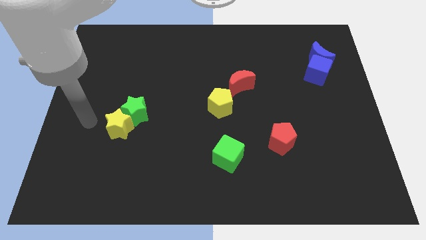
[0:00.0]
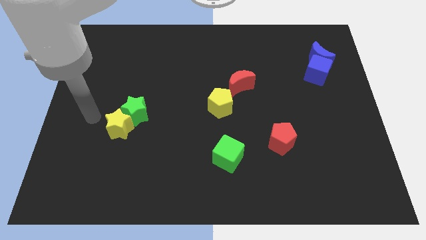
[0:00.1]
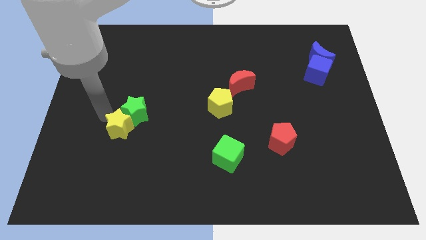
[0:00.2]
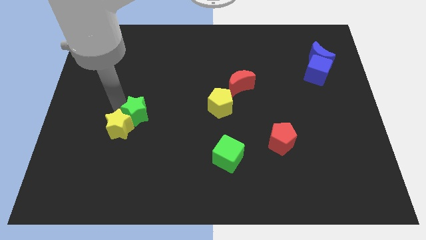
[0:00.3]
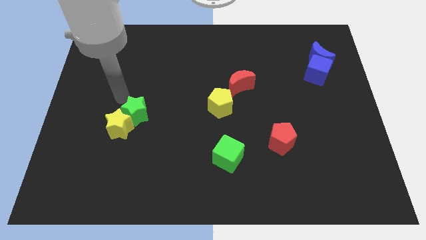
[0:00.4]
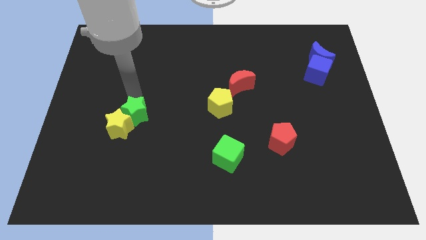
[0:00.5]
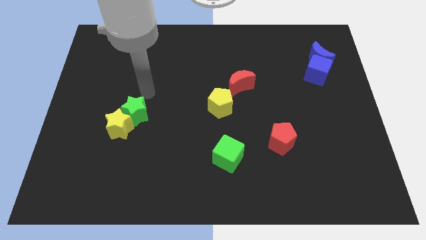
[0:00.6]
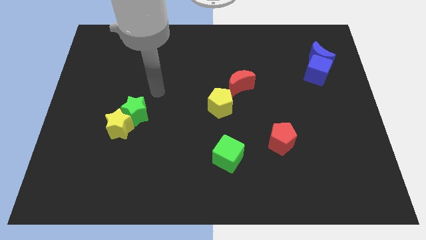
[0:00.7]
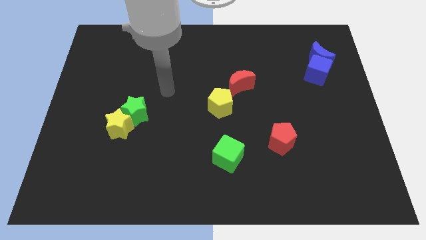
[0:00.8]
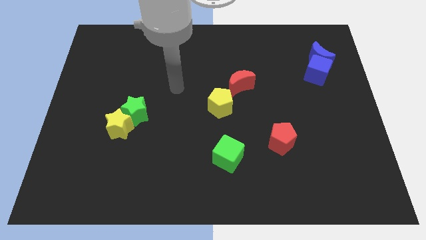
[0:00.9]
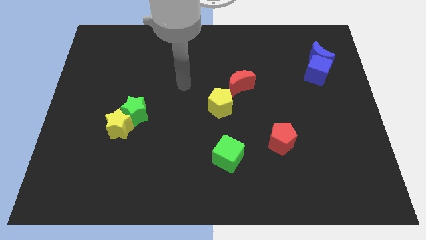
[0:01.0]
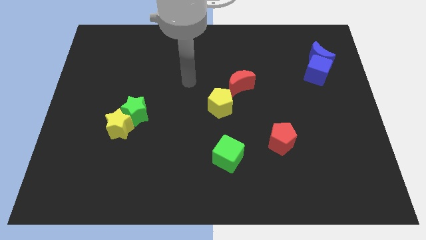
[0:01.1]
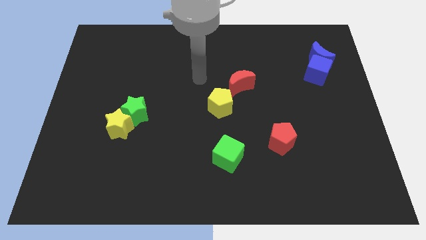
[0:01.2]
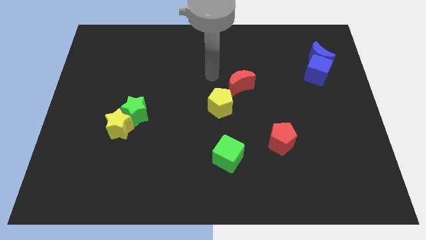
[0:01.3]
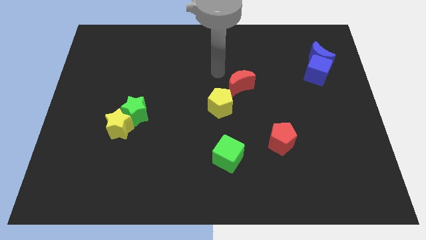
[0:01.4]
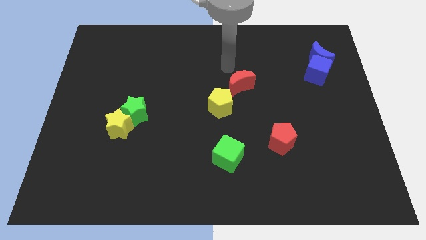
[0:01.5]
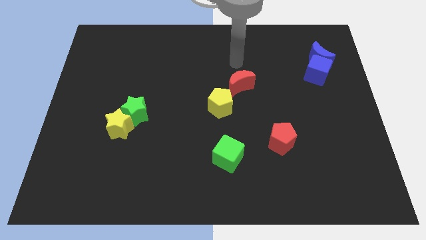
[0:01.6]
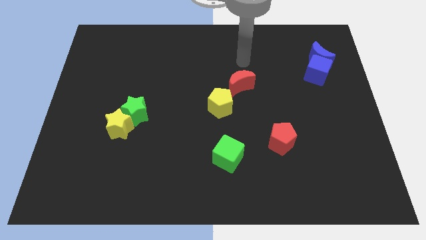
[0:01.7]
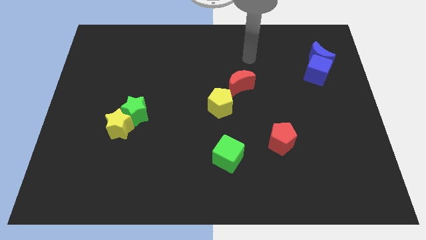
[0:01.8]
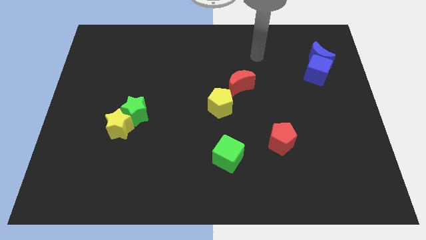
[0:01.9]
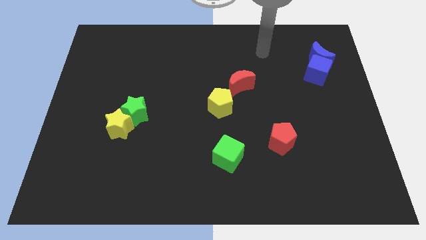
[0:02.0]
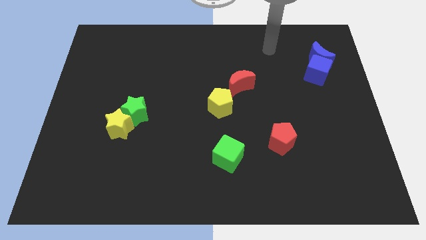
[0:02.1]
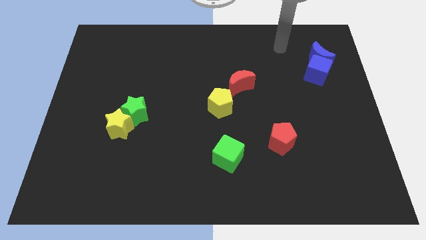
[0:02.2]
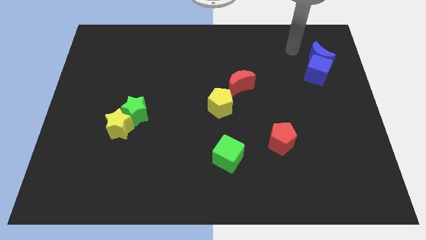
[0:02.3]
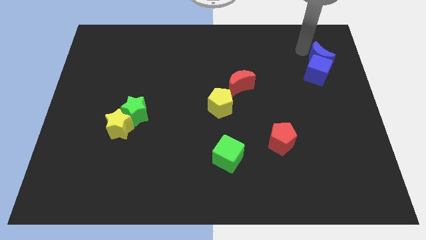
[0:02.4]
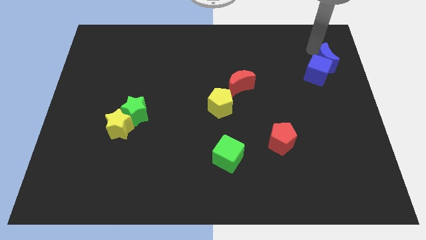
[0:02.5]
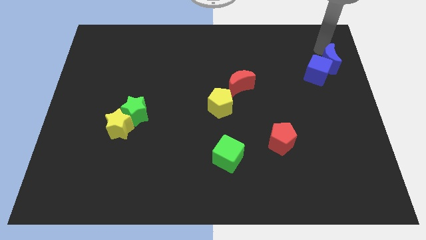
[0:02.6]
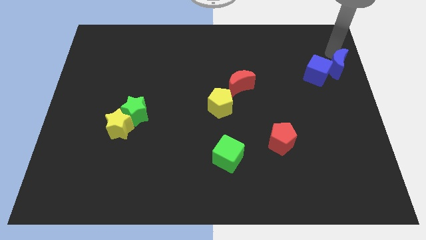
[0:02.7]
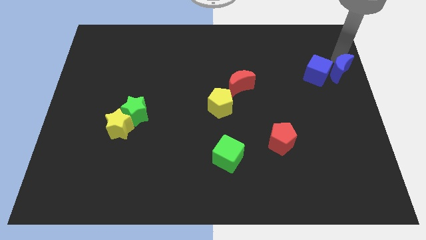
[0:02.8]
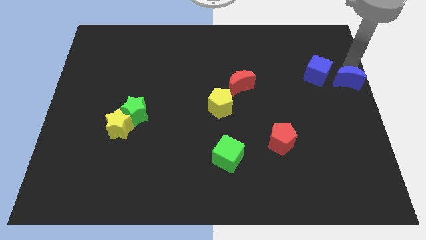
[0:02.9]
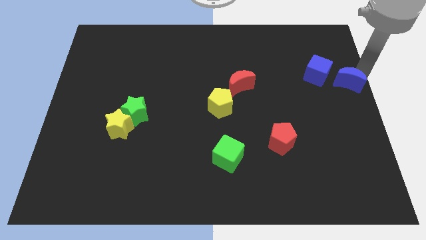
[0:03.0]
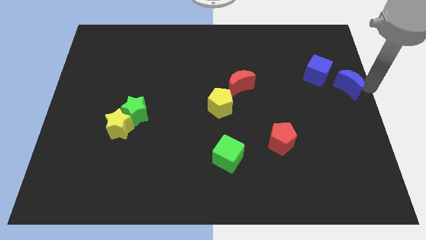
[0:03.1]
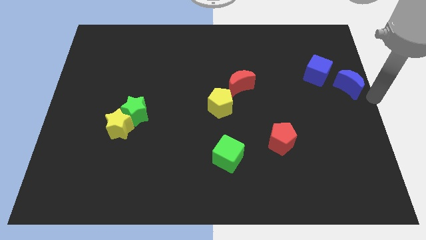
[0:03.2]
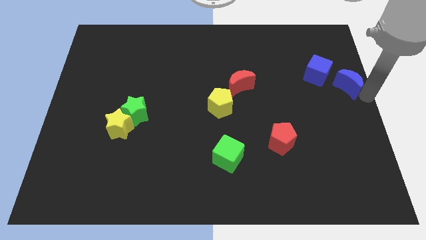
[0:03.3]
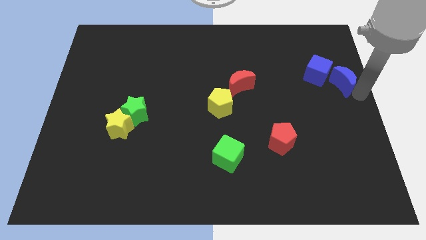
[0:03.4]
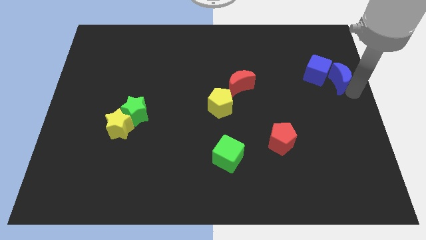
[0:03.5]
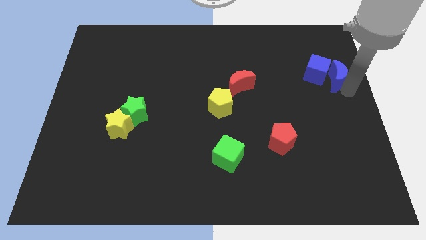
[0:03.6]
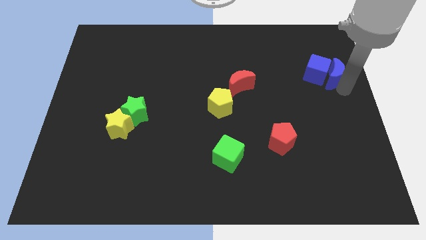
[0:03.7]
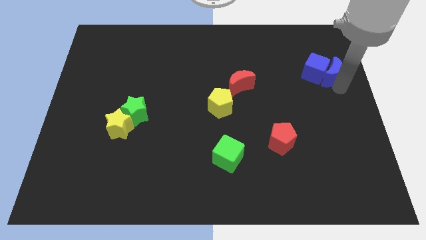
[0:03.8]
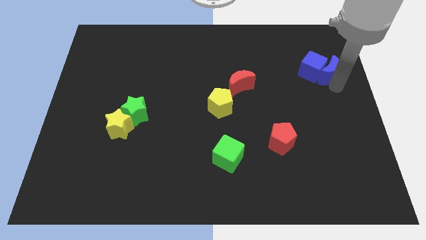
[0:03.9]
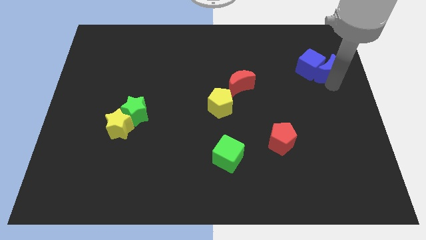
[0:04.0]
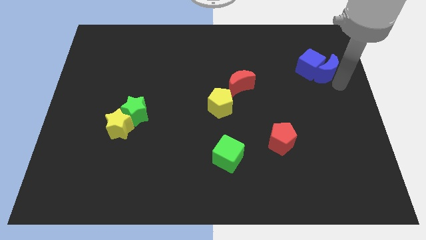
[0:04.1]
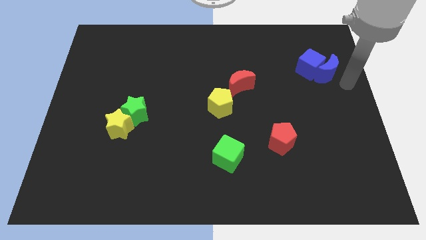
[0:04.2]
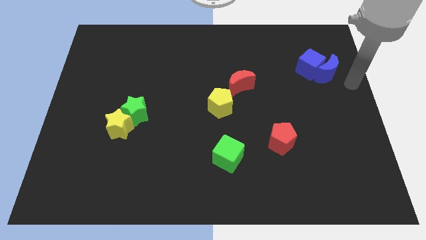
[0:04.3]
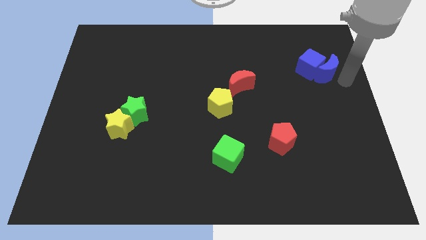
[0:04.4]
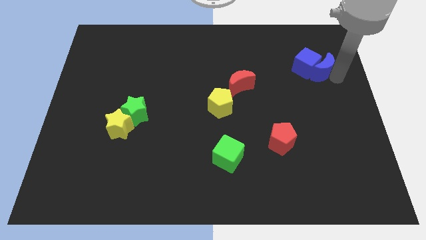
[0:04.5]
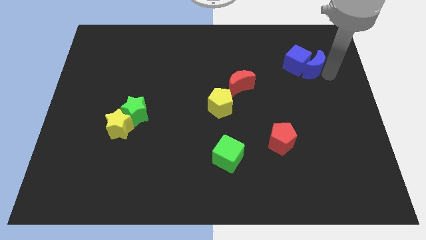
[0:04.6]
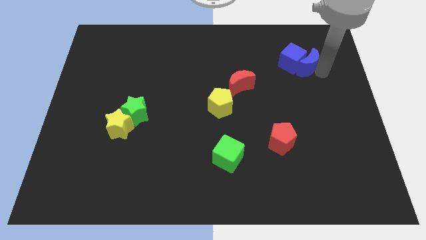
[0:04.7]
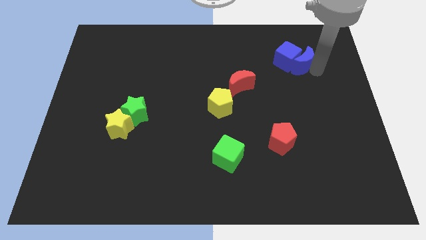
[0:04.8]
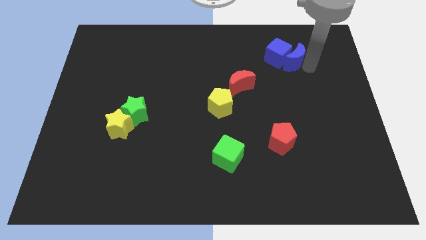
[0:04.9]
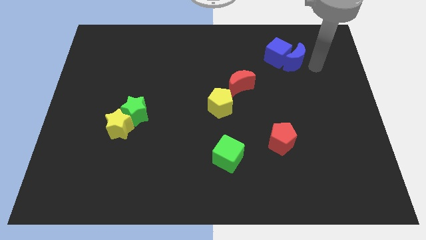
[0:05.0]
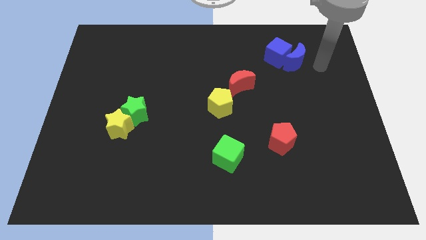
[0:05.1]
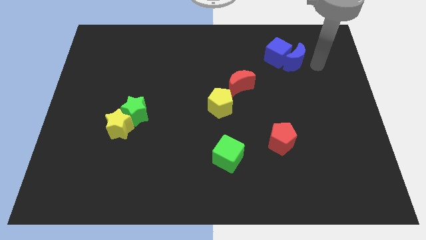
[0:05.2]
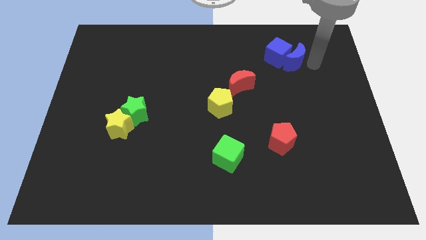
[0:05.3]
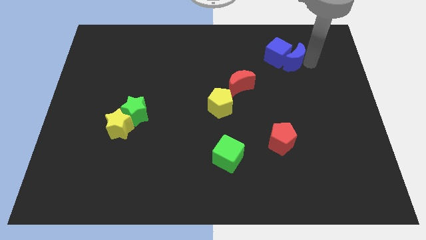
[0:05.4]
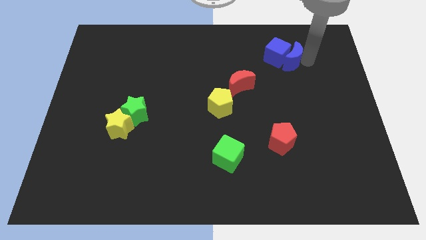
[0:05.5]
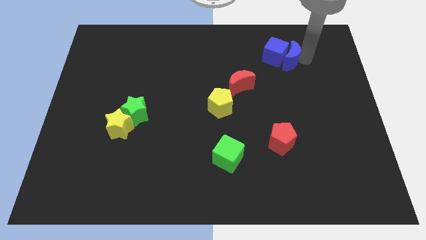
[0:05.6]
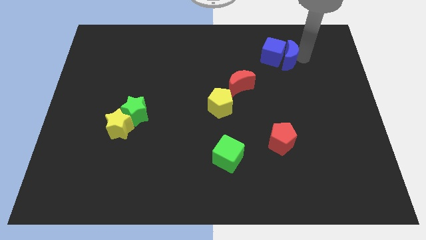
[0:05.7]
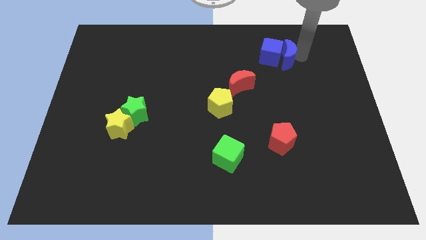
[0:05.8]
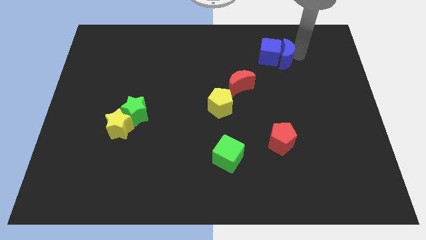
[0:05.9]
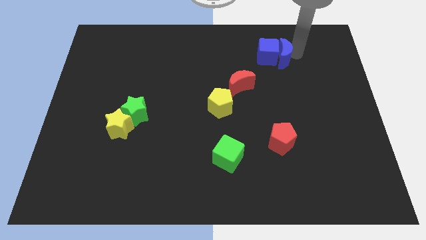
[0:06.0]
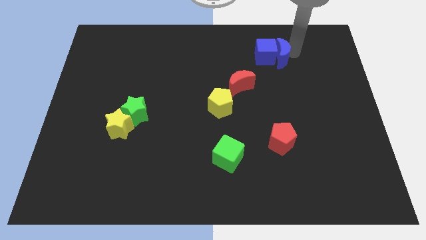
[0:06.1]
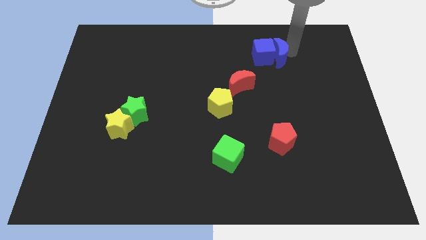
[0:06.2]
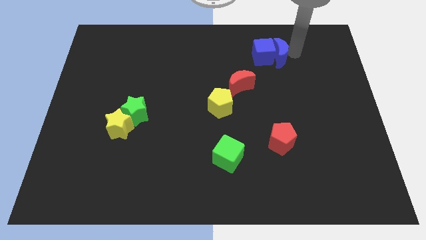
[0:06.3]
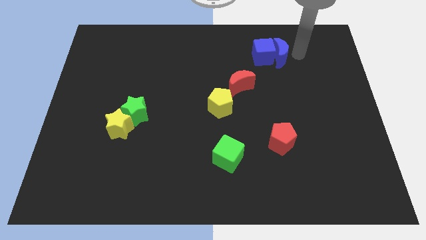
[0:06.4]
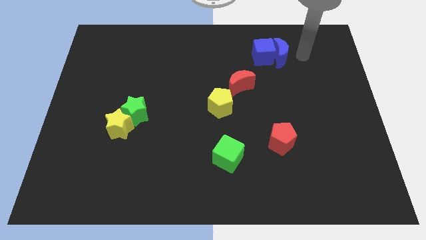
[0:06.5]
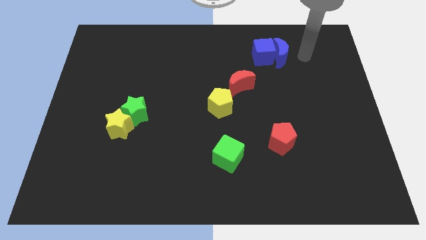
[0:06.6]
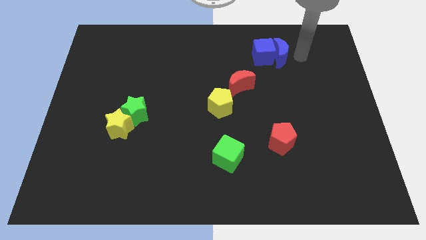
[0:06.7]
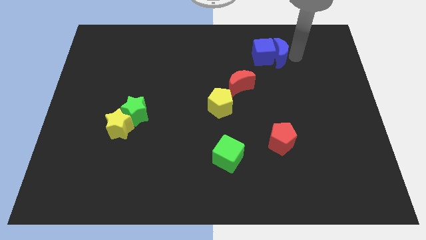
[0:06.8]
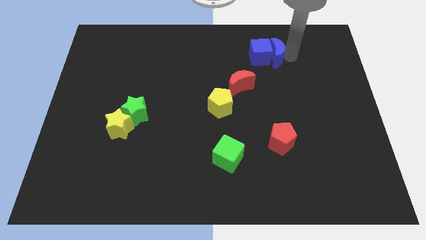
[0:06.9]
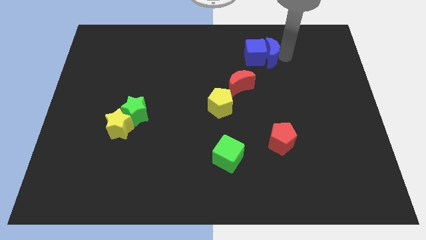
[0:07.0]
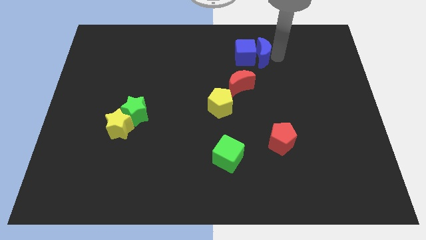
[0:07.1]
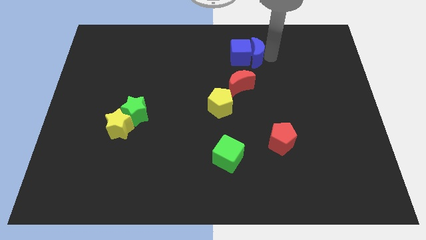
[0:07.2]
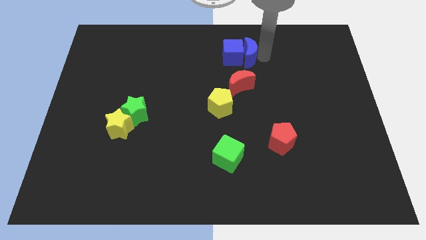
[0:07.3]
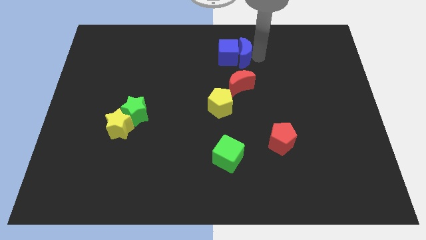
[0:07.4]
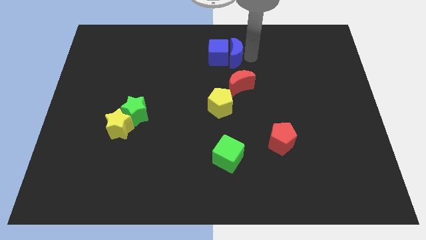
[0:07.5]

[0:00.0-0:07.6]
slide the blue moon to the left

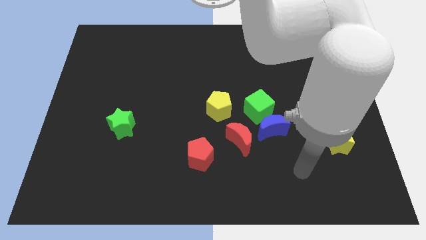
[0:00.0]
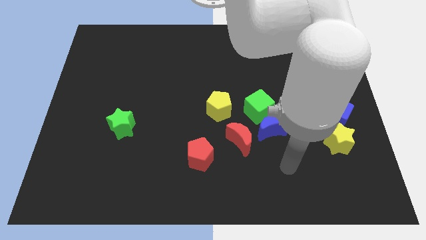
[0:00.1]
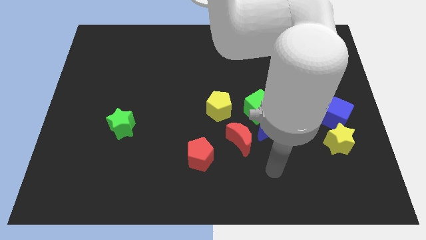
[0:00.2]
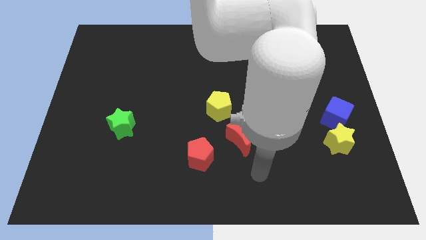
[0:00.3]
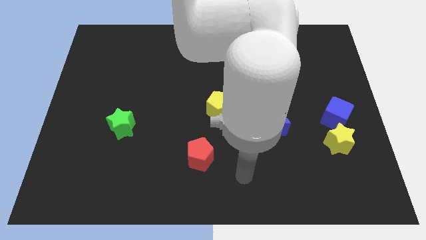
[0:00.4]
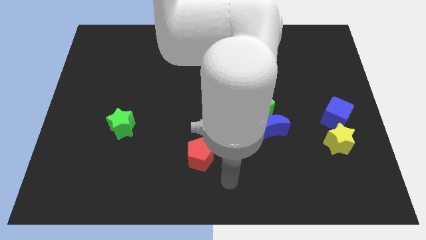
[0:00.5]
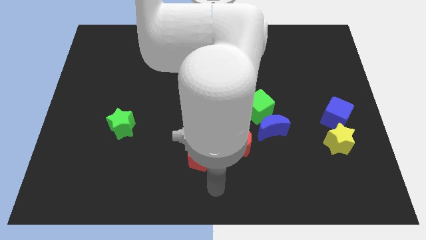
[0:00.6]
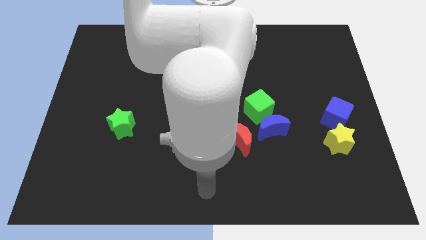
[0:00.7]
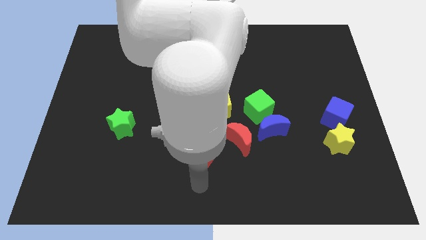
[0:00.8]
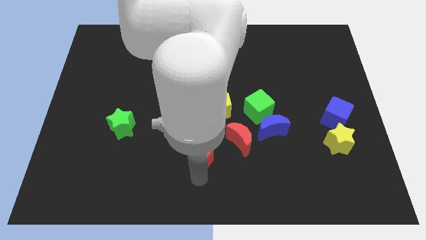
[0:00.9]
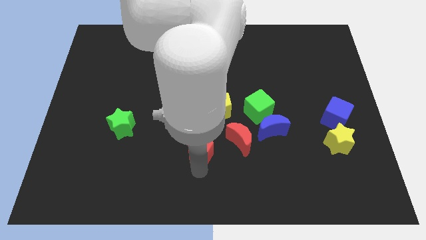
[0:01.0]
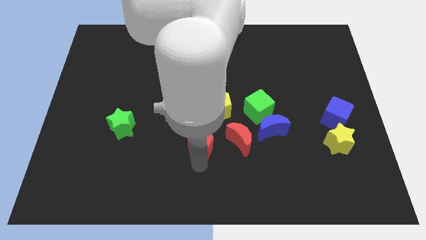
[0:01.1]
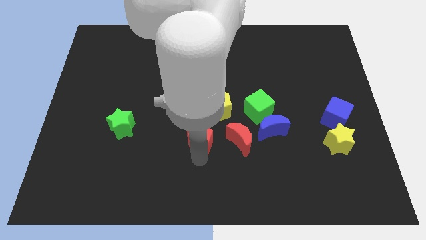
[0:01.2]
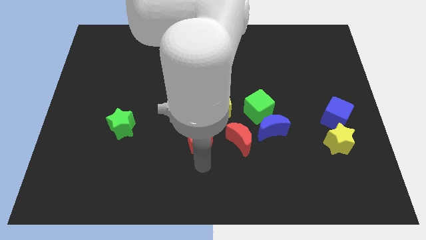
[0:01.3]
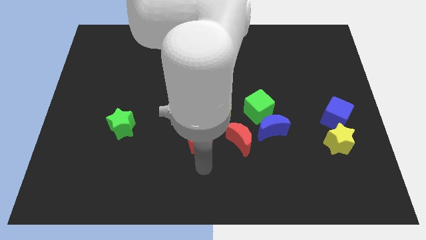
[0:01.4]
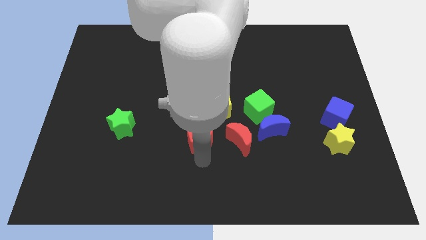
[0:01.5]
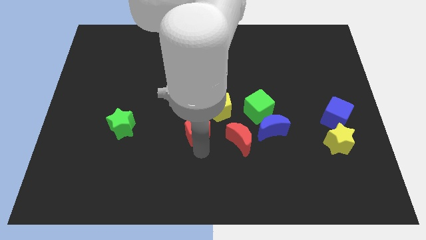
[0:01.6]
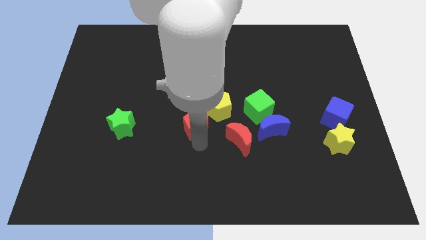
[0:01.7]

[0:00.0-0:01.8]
move the red pentagon up slightly
